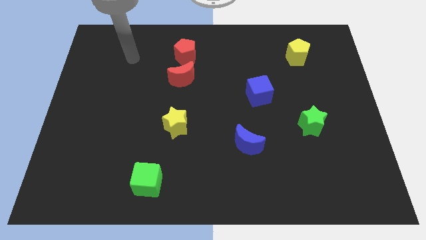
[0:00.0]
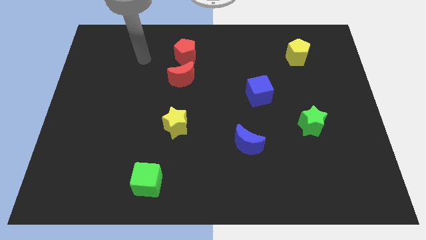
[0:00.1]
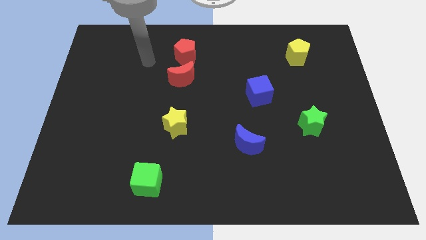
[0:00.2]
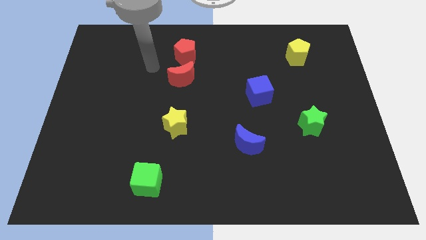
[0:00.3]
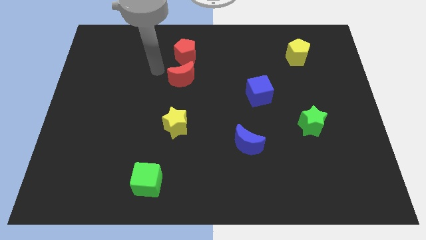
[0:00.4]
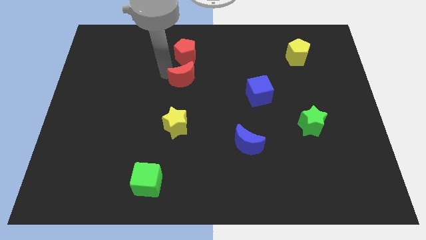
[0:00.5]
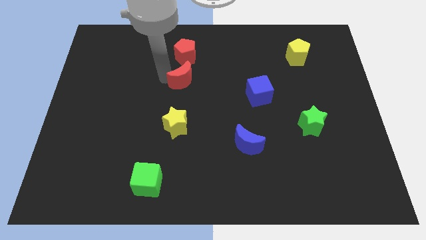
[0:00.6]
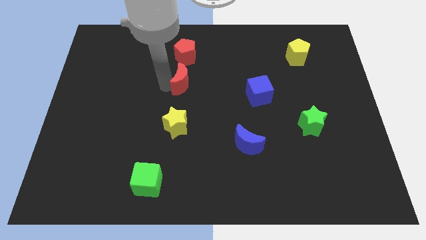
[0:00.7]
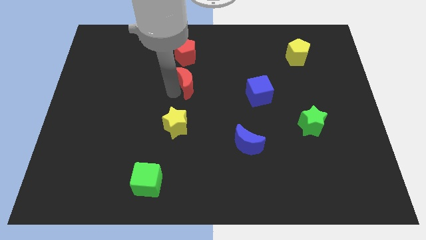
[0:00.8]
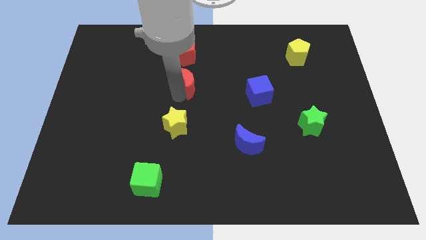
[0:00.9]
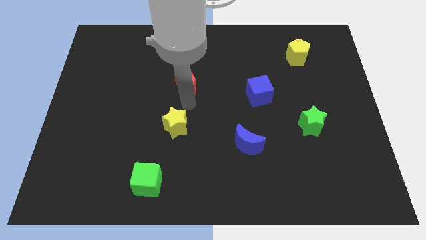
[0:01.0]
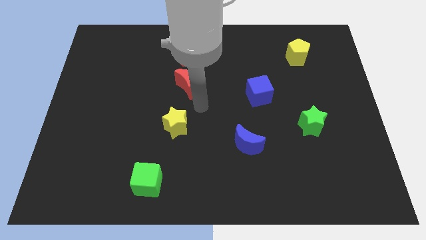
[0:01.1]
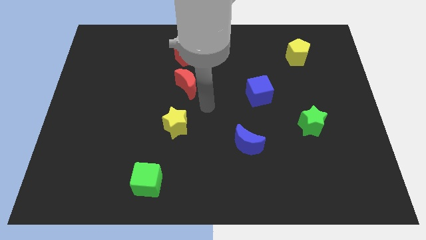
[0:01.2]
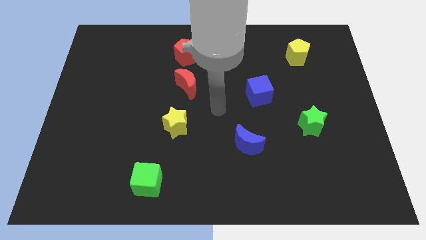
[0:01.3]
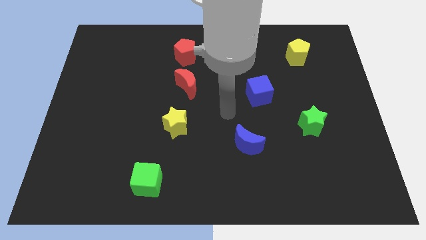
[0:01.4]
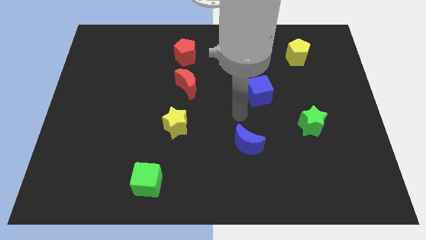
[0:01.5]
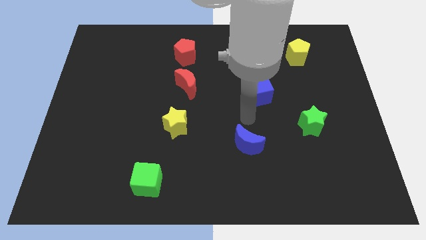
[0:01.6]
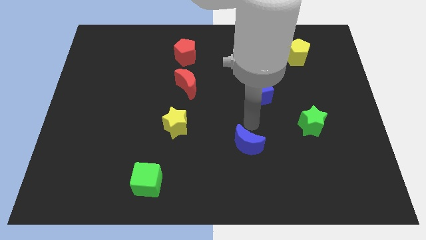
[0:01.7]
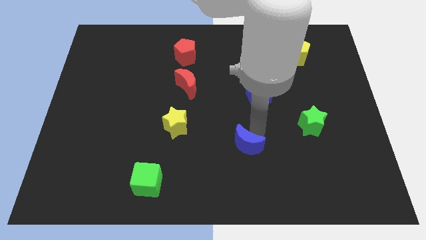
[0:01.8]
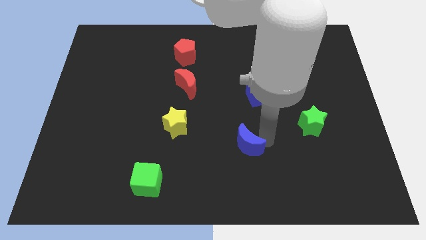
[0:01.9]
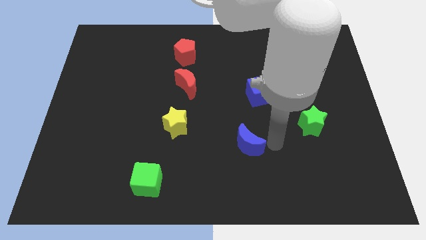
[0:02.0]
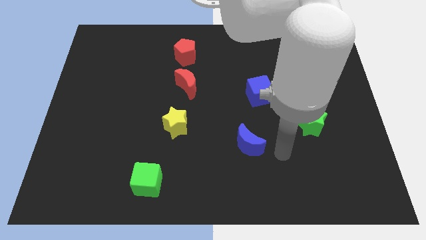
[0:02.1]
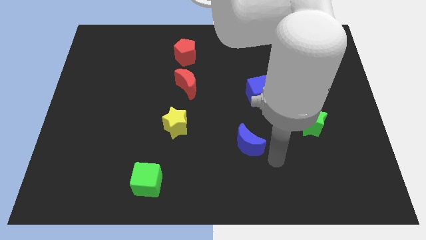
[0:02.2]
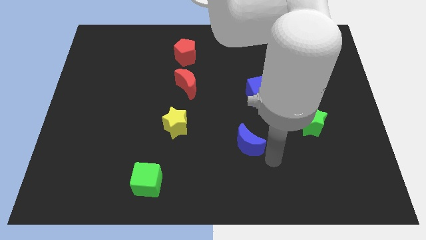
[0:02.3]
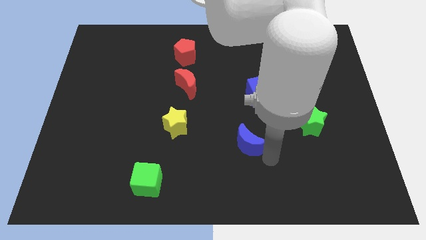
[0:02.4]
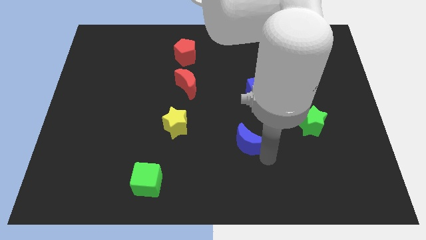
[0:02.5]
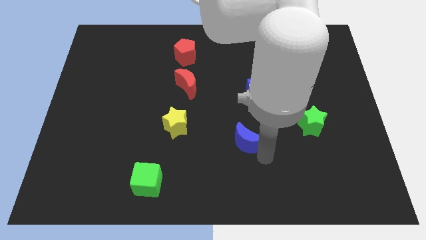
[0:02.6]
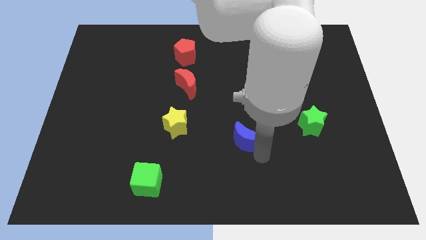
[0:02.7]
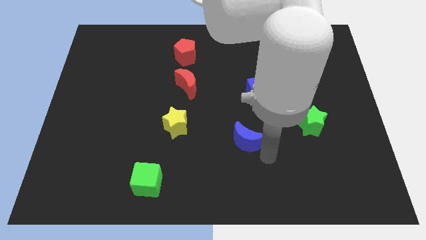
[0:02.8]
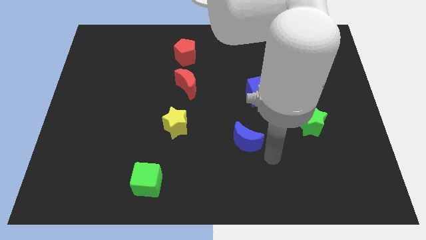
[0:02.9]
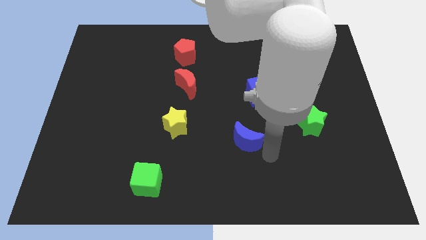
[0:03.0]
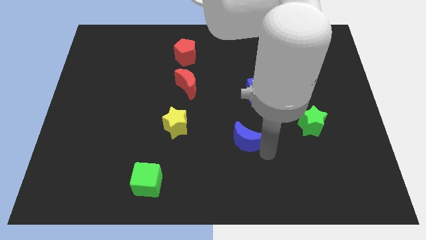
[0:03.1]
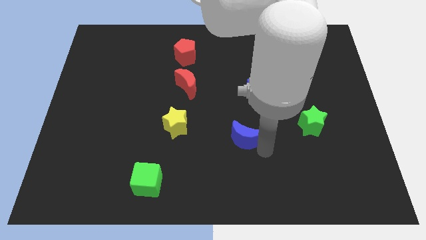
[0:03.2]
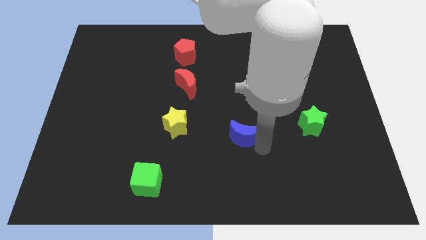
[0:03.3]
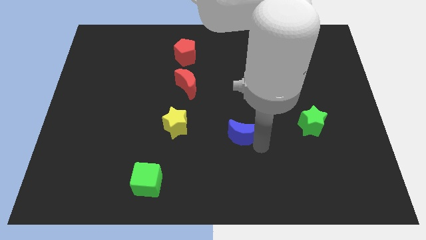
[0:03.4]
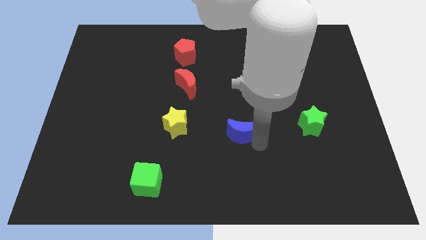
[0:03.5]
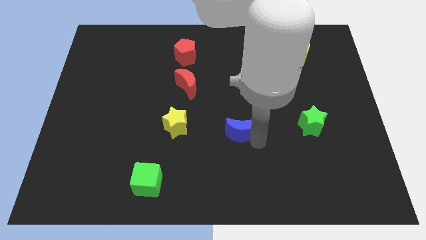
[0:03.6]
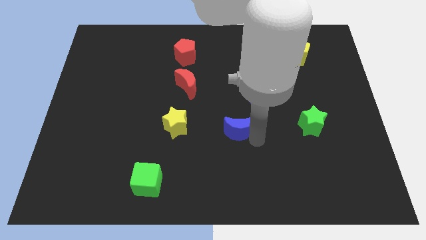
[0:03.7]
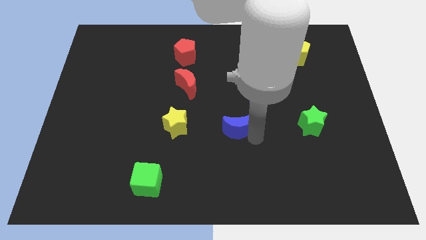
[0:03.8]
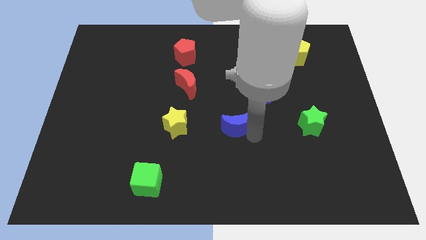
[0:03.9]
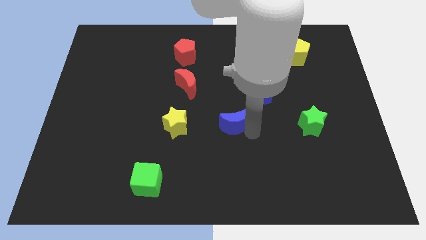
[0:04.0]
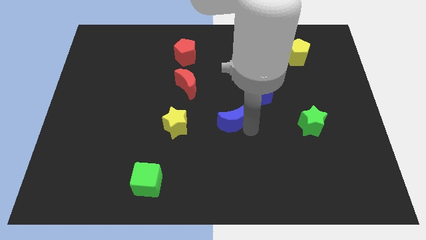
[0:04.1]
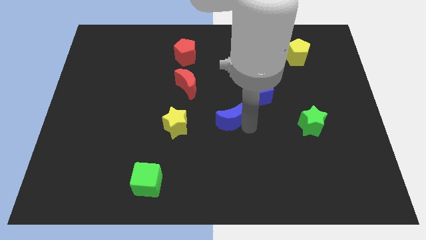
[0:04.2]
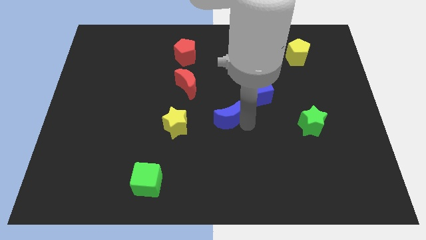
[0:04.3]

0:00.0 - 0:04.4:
slightly push the blue moon up and to the left

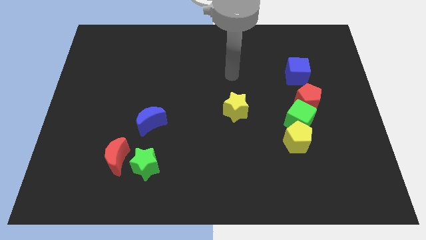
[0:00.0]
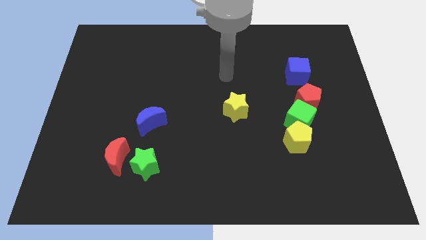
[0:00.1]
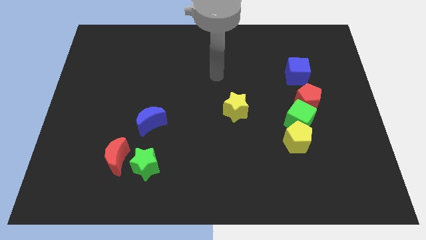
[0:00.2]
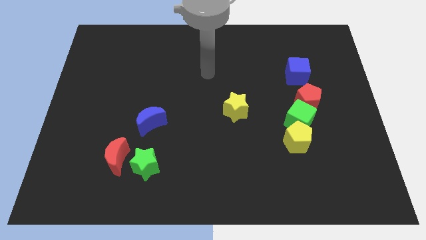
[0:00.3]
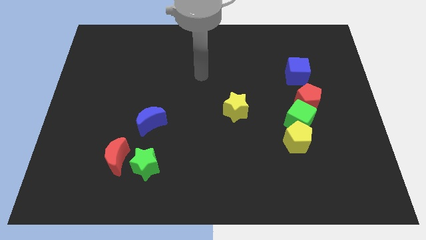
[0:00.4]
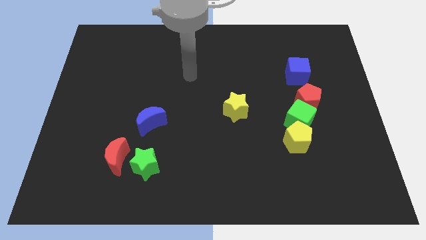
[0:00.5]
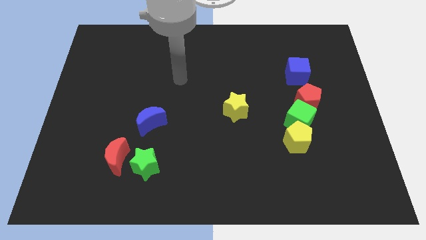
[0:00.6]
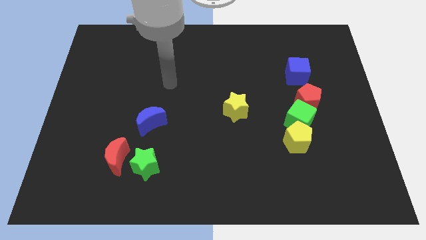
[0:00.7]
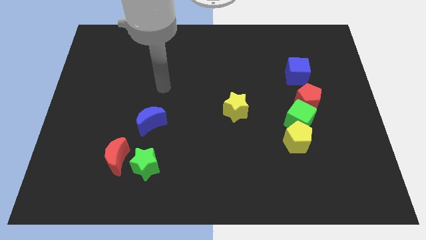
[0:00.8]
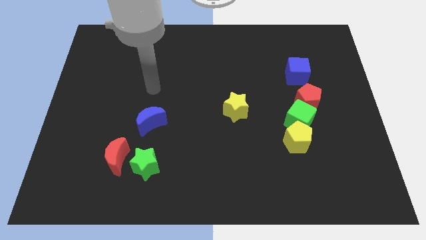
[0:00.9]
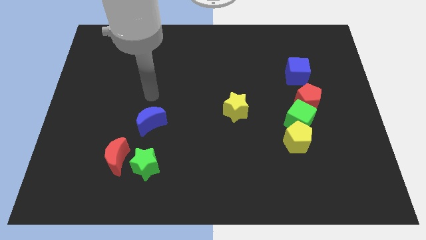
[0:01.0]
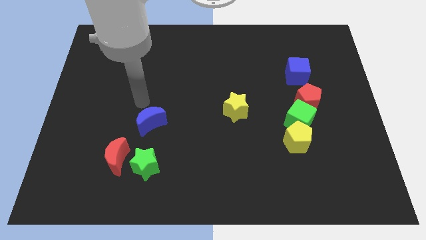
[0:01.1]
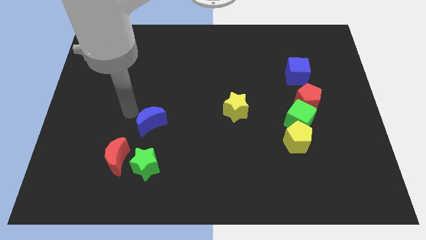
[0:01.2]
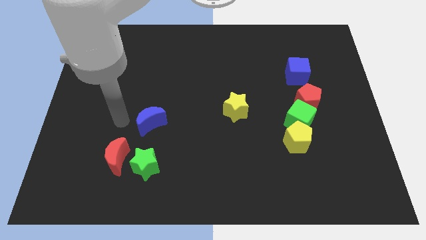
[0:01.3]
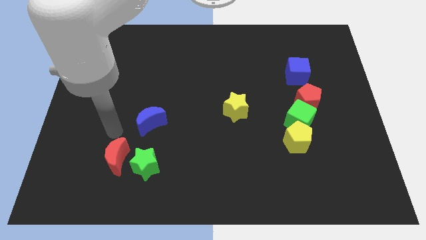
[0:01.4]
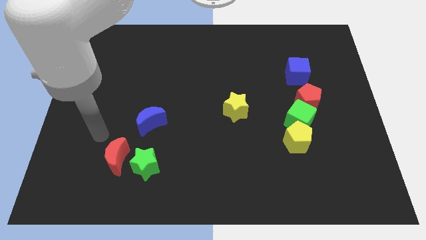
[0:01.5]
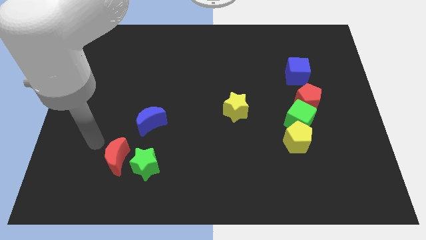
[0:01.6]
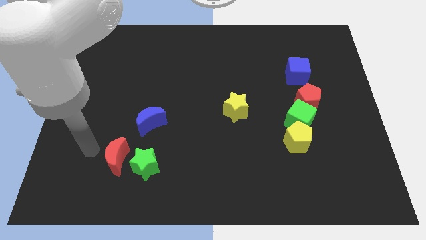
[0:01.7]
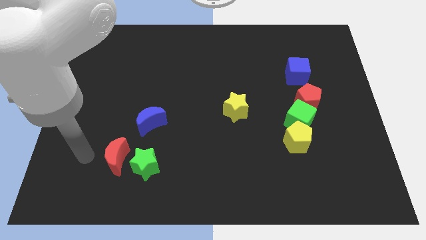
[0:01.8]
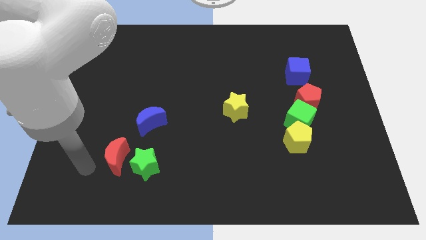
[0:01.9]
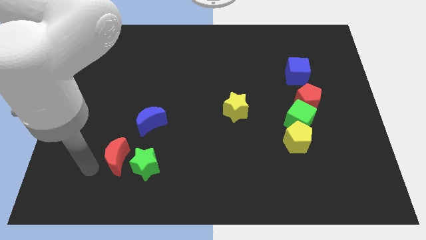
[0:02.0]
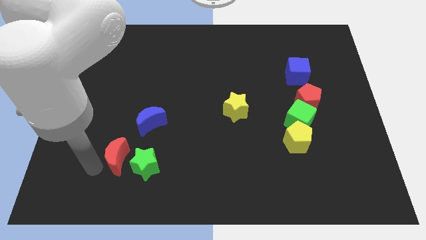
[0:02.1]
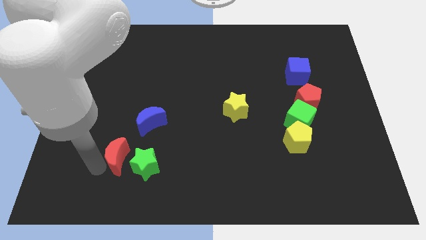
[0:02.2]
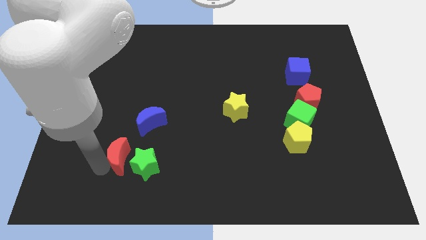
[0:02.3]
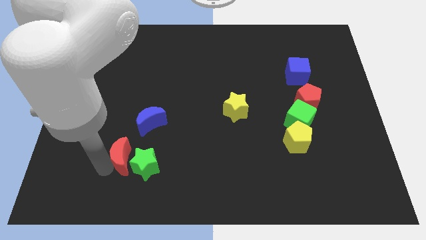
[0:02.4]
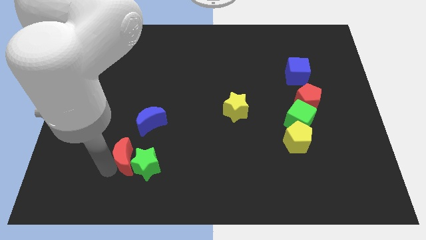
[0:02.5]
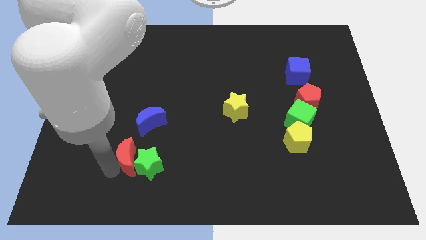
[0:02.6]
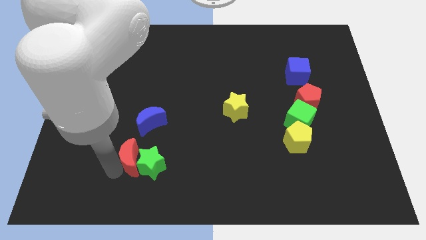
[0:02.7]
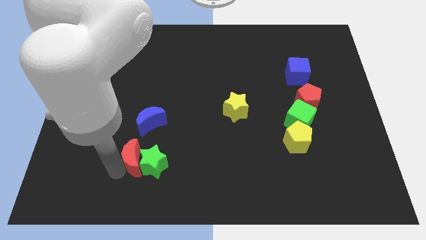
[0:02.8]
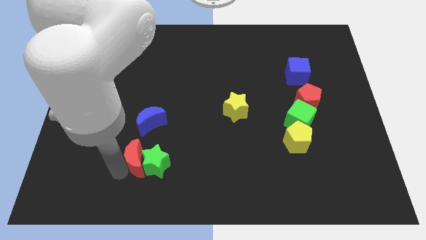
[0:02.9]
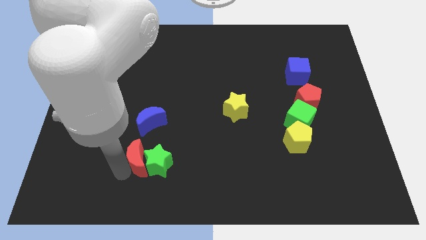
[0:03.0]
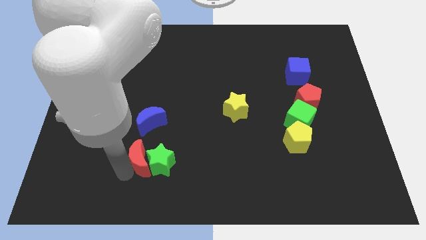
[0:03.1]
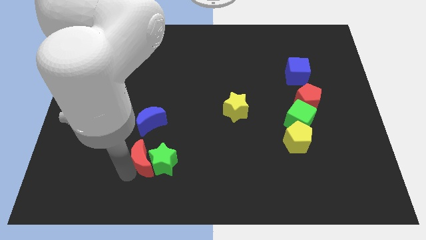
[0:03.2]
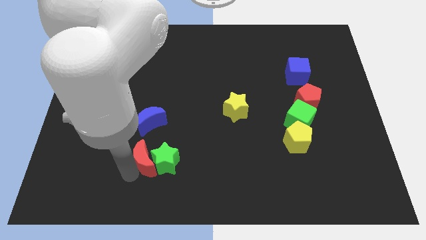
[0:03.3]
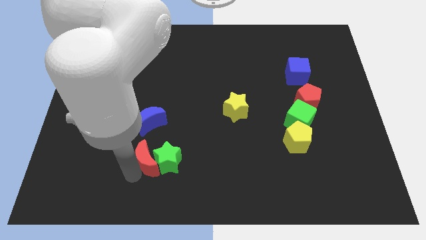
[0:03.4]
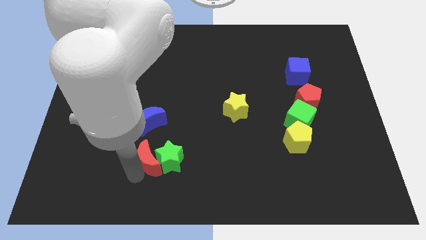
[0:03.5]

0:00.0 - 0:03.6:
move the red moon to the right somewhat

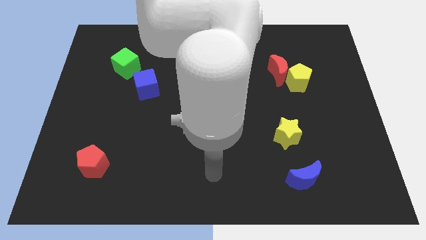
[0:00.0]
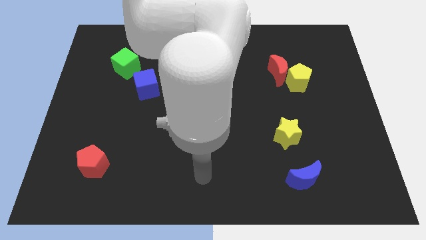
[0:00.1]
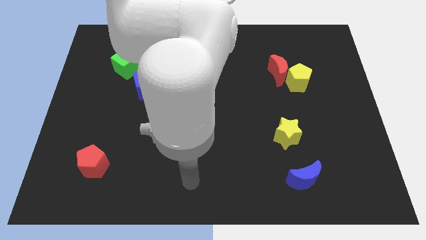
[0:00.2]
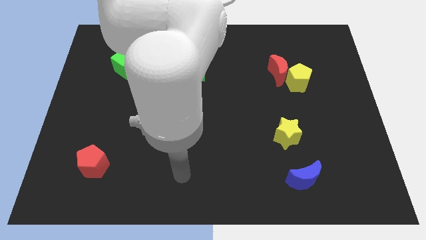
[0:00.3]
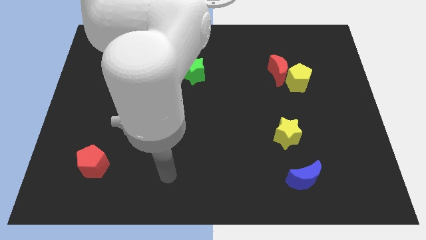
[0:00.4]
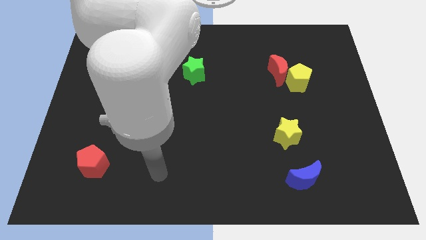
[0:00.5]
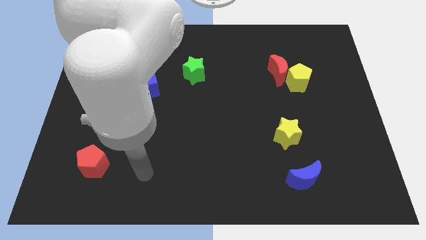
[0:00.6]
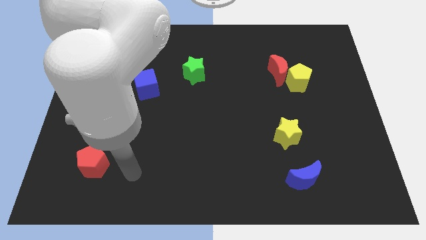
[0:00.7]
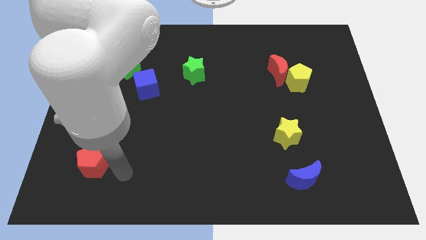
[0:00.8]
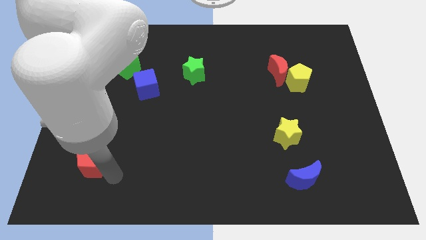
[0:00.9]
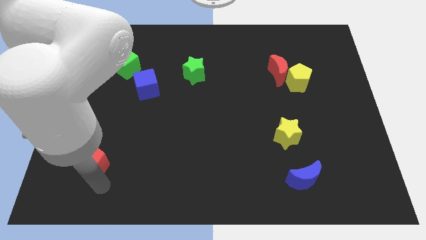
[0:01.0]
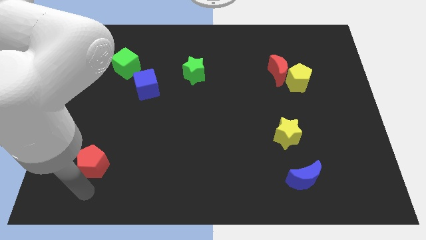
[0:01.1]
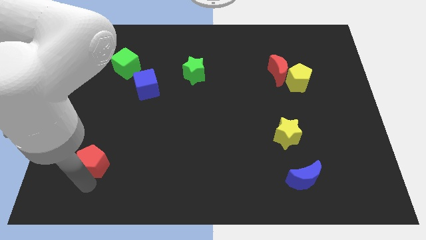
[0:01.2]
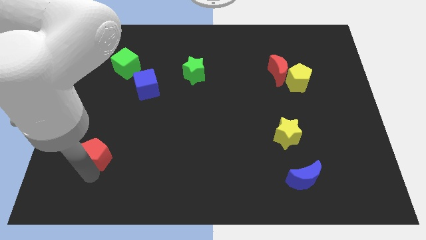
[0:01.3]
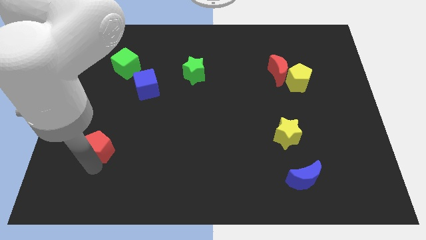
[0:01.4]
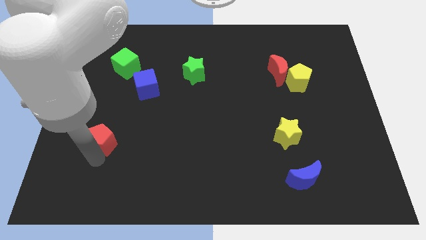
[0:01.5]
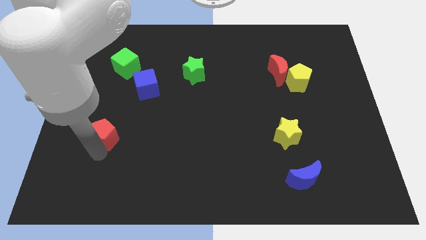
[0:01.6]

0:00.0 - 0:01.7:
slightly move the red pentagon upwards
